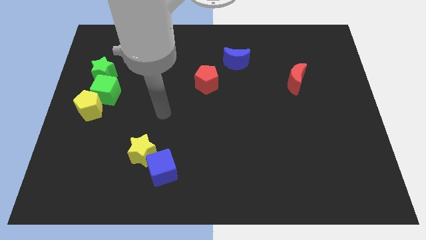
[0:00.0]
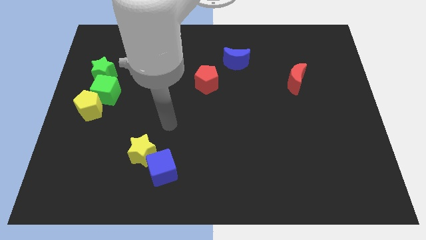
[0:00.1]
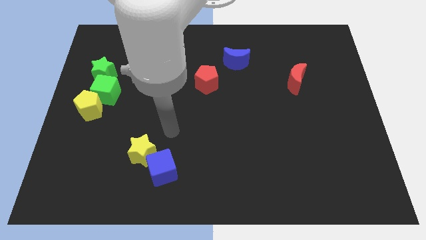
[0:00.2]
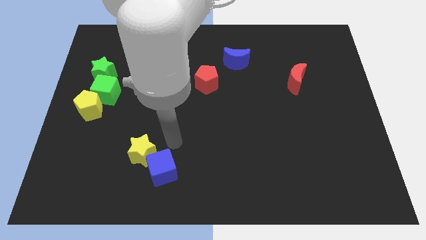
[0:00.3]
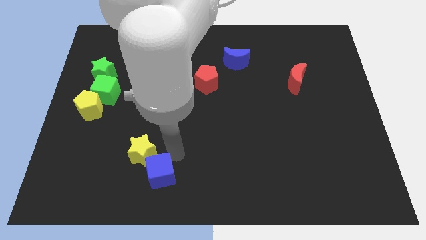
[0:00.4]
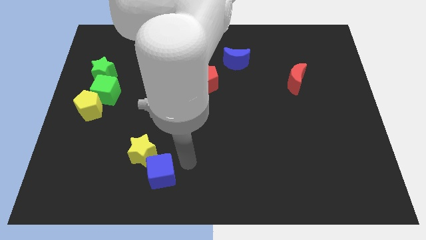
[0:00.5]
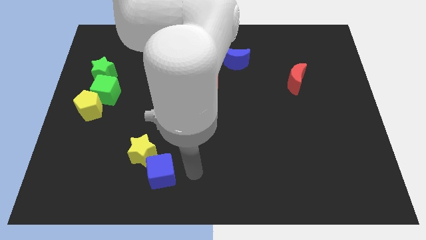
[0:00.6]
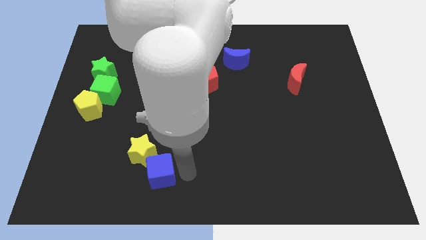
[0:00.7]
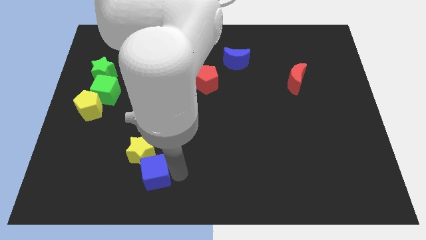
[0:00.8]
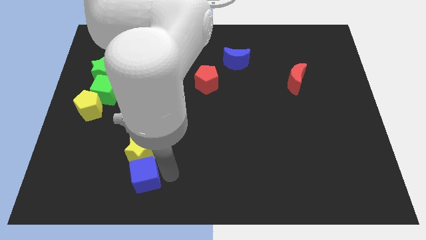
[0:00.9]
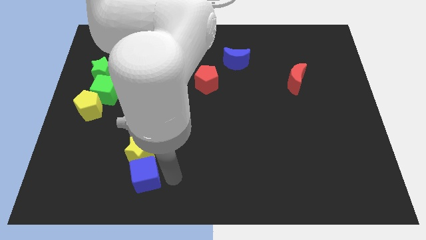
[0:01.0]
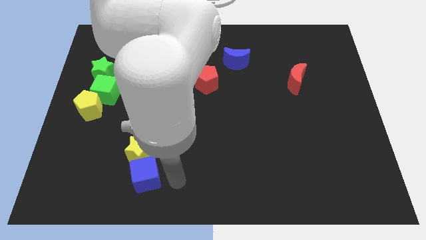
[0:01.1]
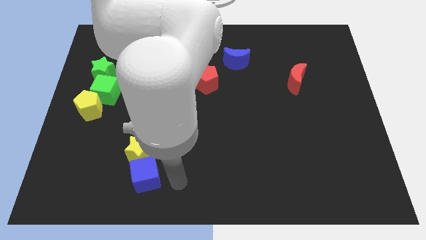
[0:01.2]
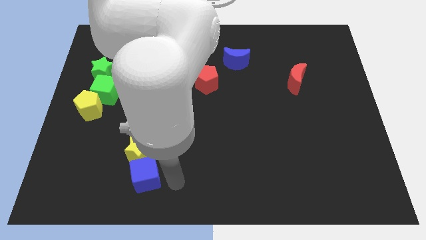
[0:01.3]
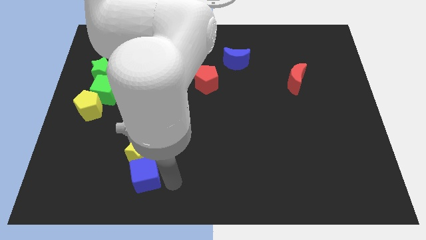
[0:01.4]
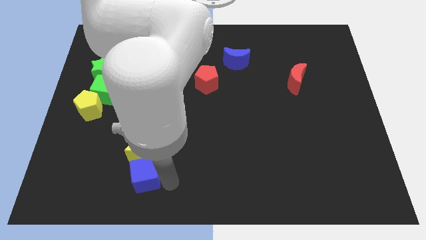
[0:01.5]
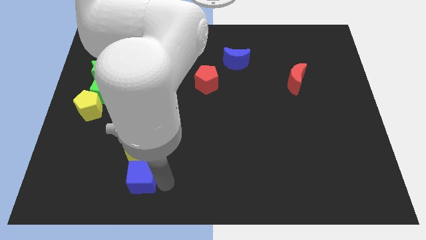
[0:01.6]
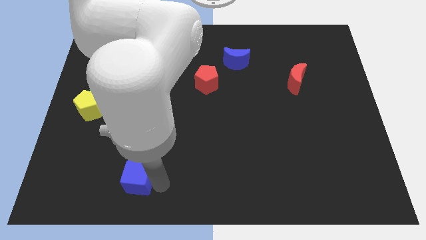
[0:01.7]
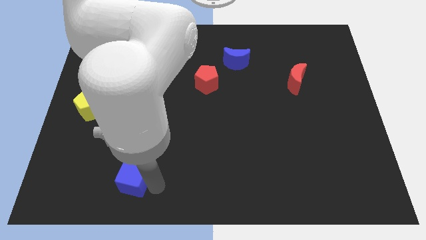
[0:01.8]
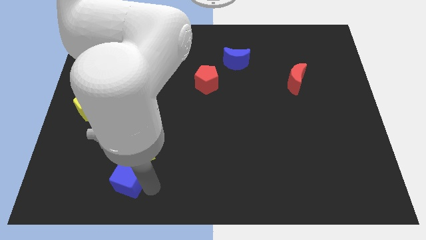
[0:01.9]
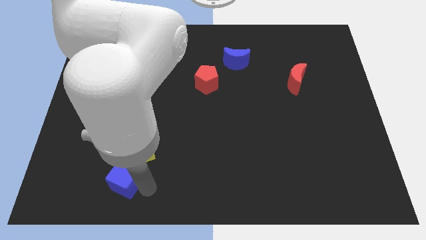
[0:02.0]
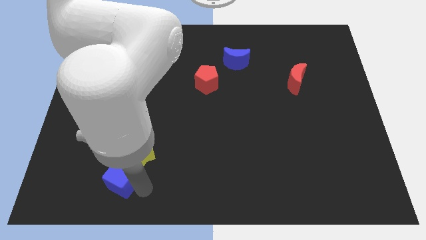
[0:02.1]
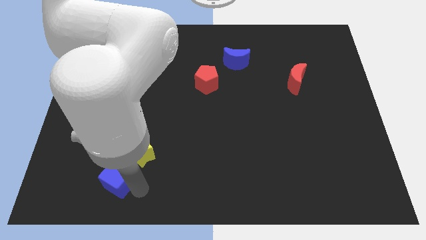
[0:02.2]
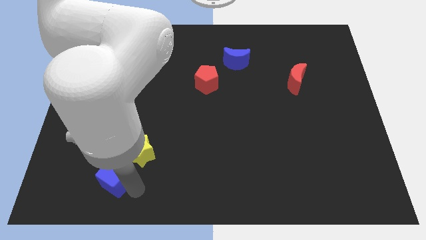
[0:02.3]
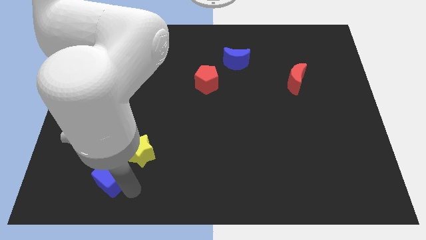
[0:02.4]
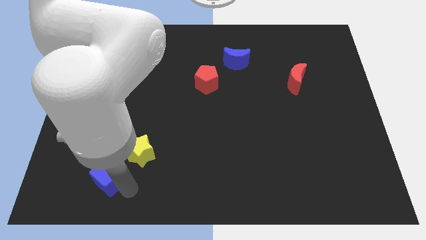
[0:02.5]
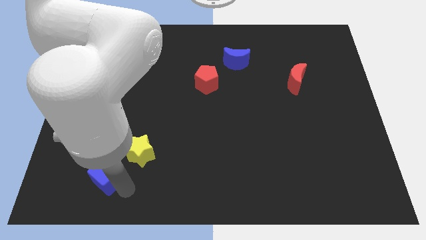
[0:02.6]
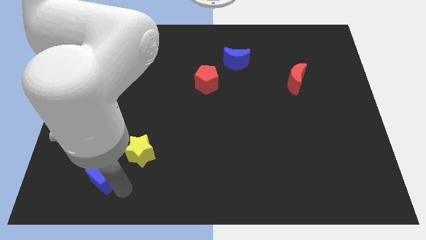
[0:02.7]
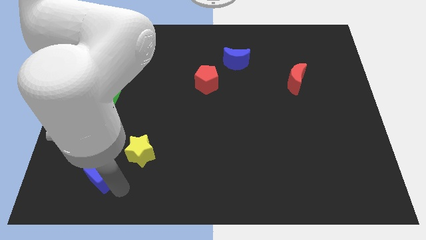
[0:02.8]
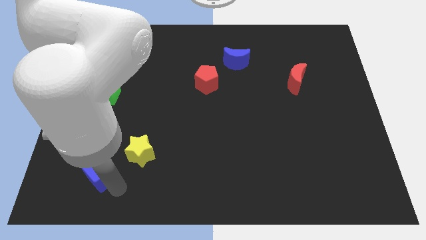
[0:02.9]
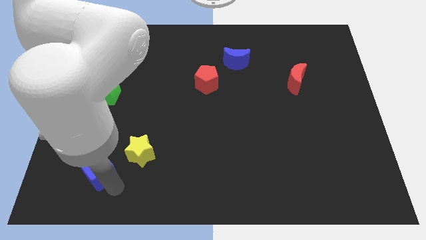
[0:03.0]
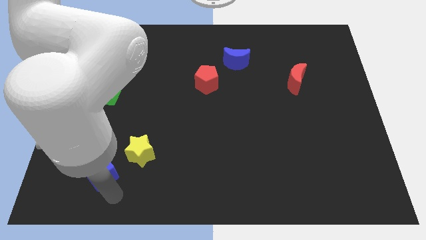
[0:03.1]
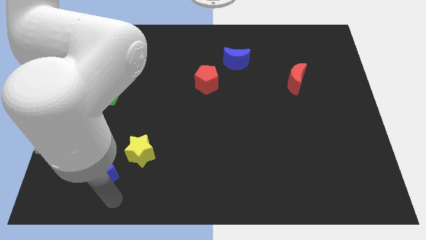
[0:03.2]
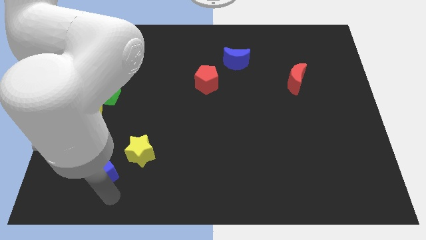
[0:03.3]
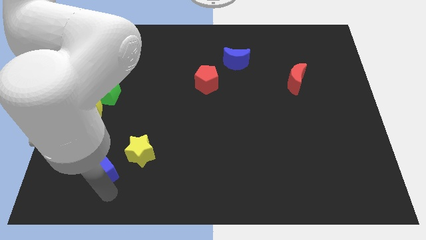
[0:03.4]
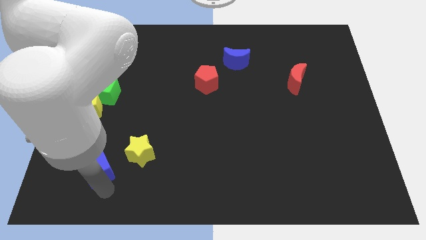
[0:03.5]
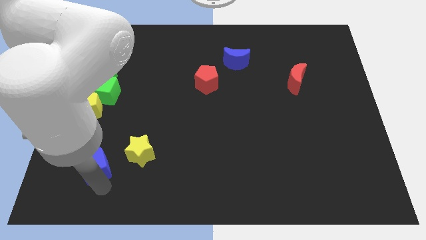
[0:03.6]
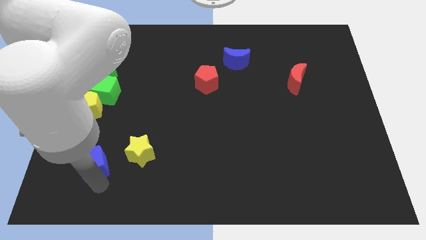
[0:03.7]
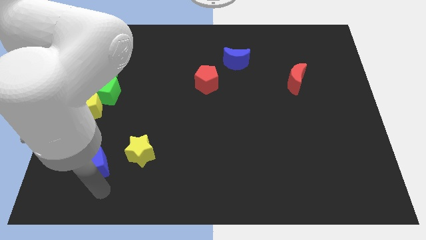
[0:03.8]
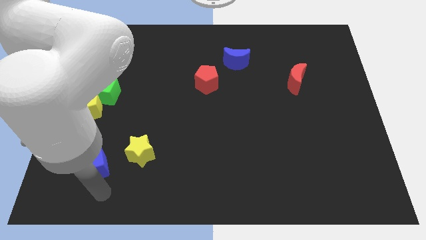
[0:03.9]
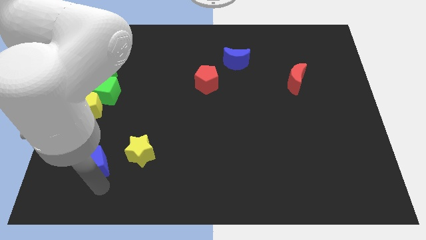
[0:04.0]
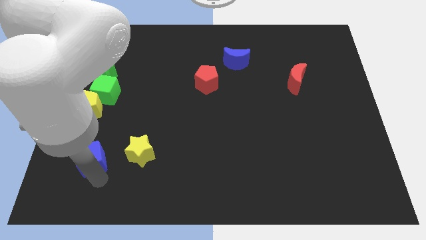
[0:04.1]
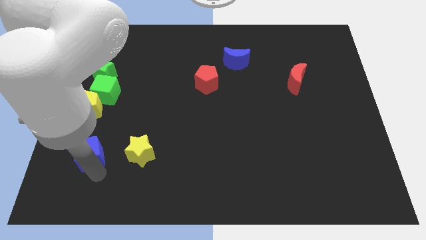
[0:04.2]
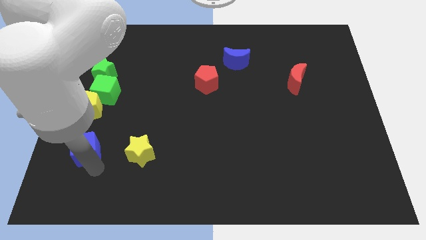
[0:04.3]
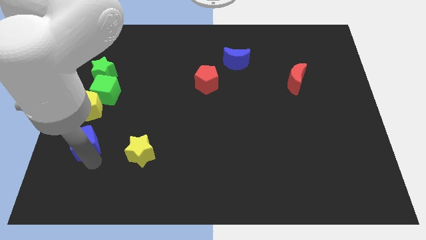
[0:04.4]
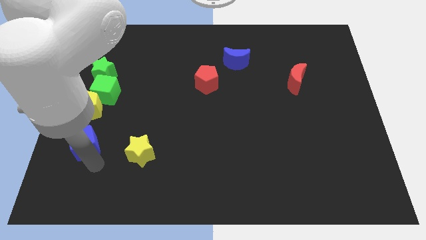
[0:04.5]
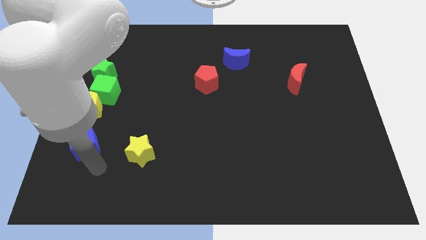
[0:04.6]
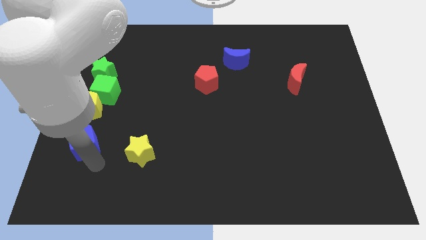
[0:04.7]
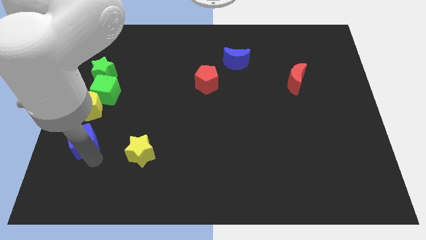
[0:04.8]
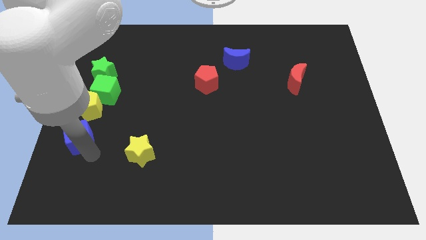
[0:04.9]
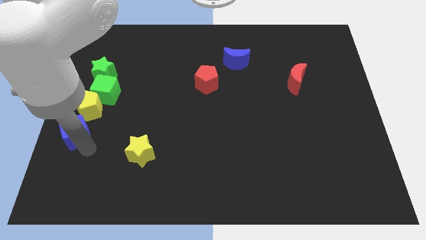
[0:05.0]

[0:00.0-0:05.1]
put the blue cube to the center left

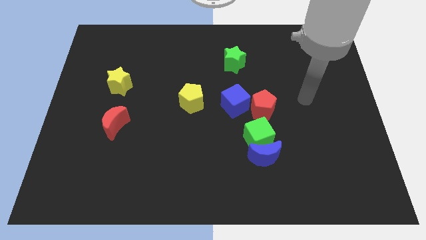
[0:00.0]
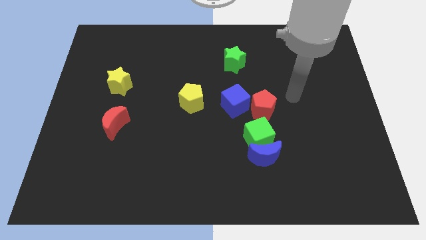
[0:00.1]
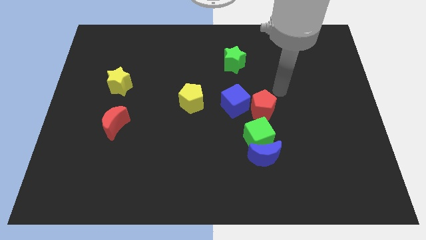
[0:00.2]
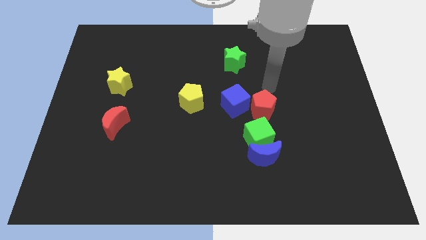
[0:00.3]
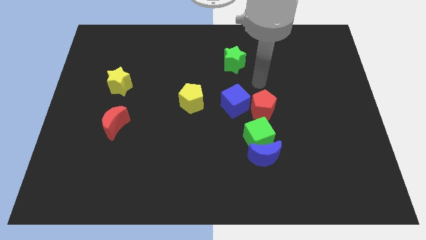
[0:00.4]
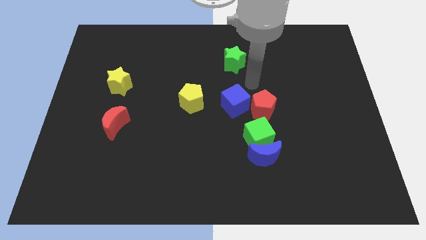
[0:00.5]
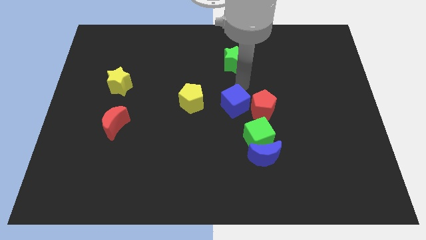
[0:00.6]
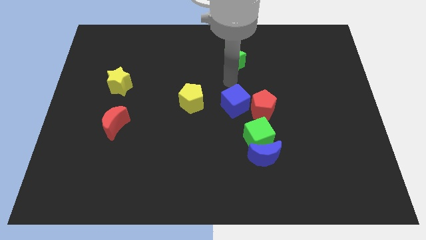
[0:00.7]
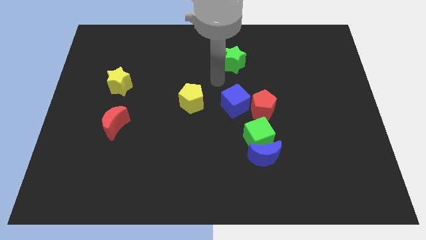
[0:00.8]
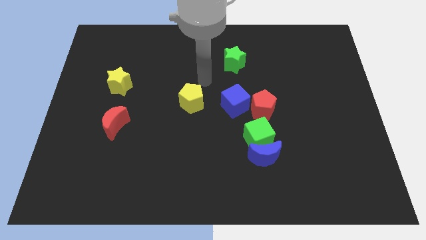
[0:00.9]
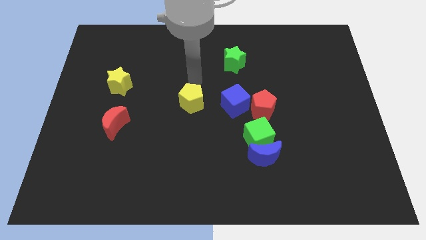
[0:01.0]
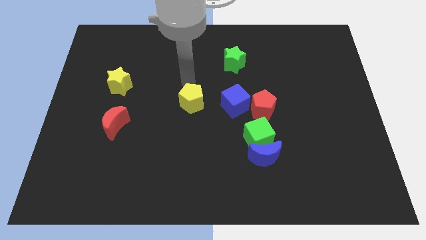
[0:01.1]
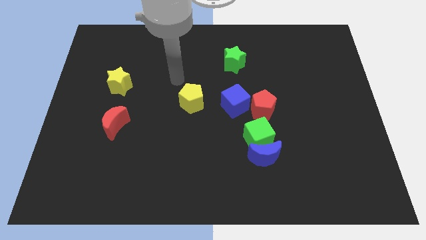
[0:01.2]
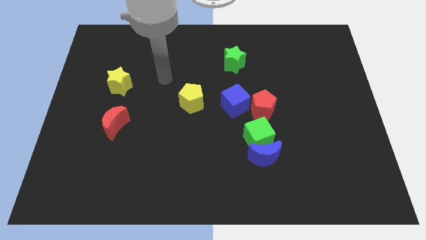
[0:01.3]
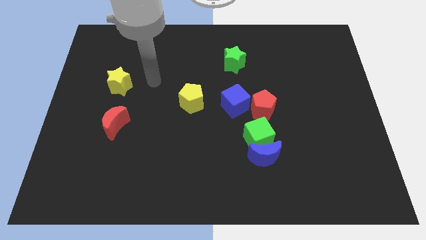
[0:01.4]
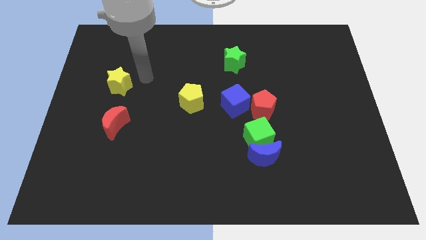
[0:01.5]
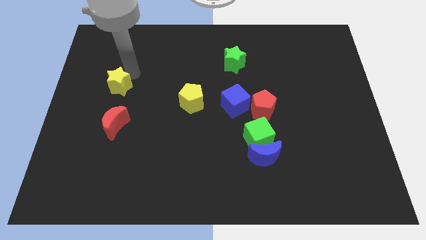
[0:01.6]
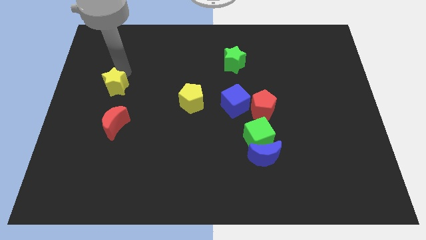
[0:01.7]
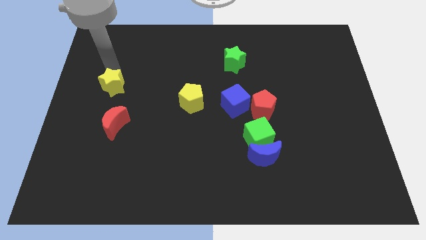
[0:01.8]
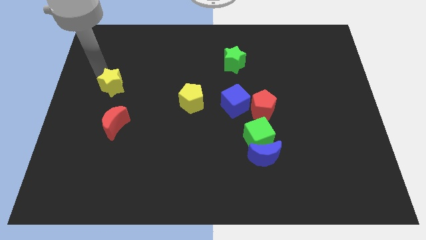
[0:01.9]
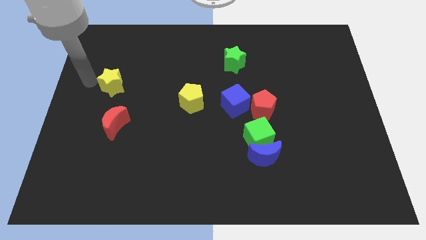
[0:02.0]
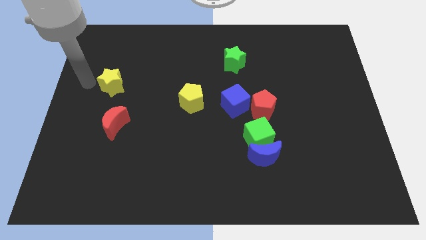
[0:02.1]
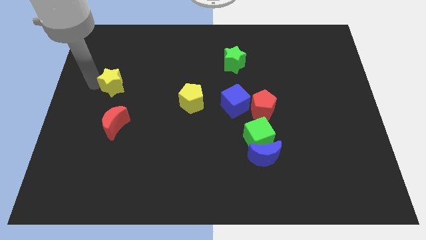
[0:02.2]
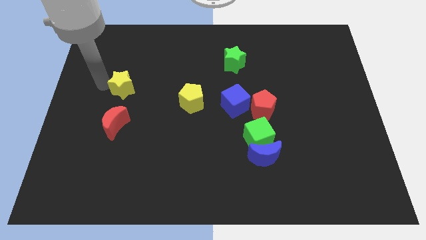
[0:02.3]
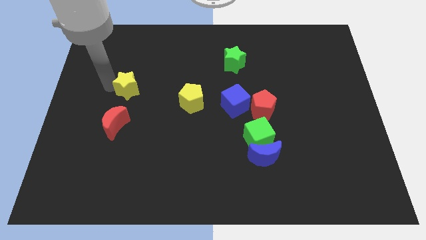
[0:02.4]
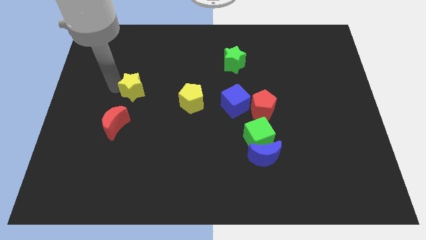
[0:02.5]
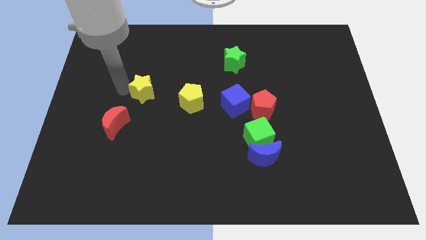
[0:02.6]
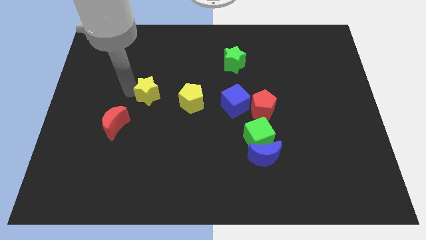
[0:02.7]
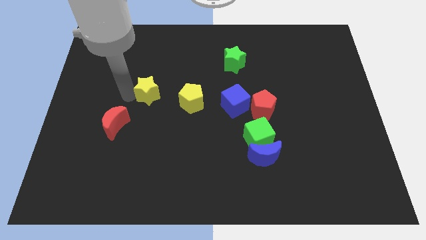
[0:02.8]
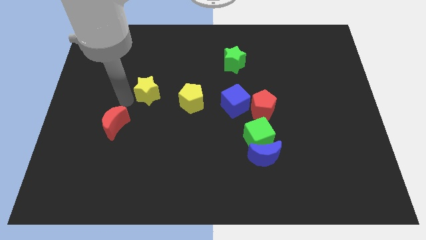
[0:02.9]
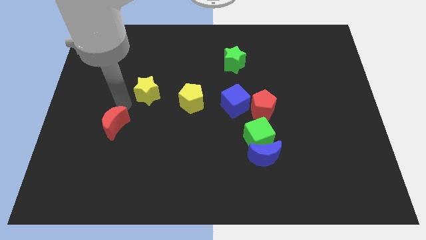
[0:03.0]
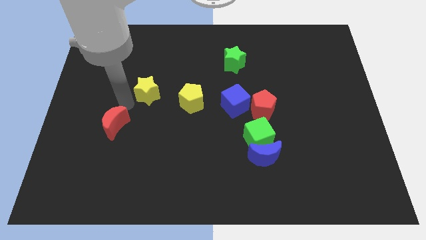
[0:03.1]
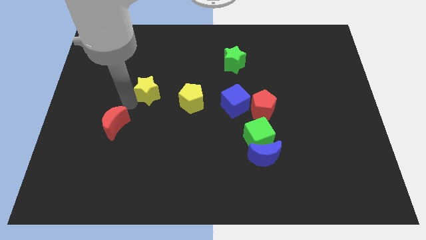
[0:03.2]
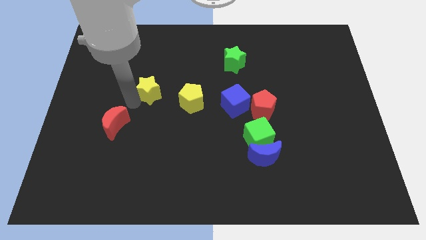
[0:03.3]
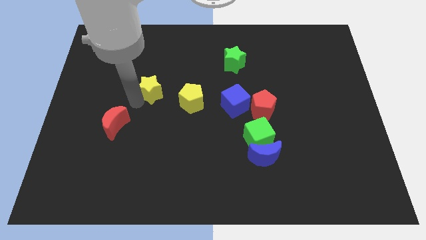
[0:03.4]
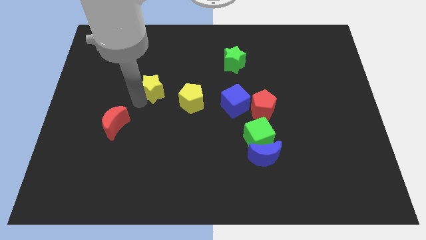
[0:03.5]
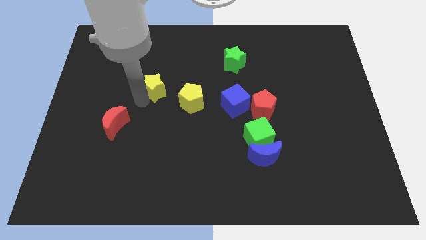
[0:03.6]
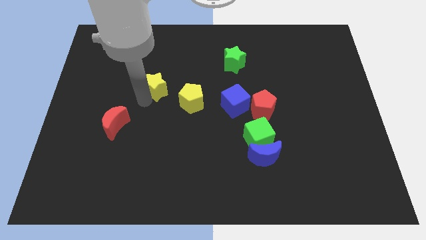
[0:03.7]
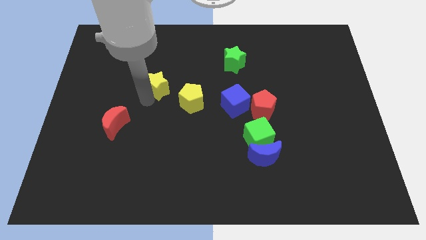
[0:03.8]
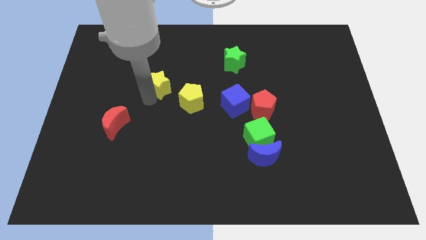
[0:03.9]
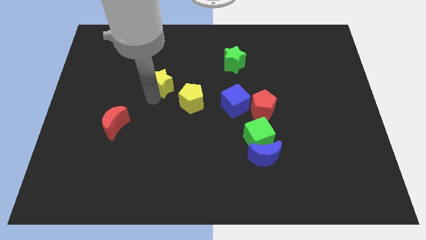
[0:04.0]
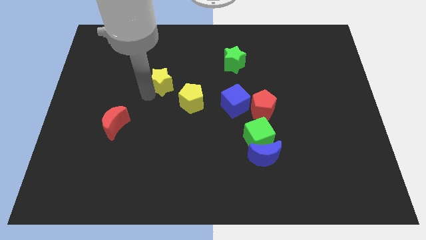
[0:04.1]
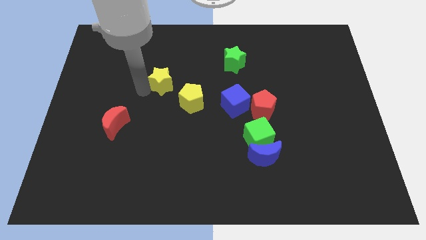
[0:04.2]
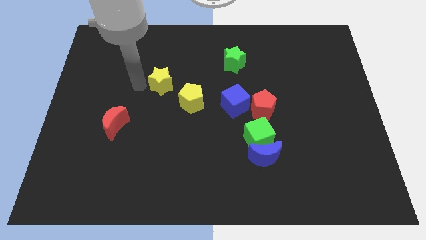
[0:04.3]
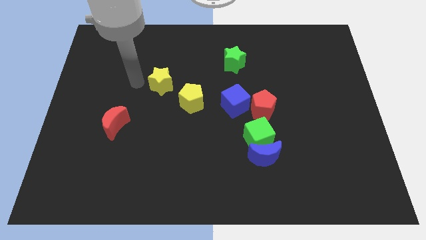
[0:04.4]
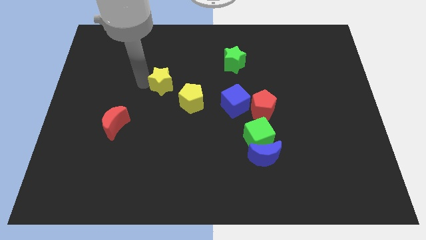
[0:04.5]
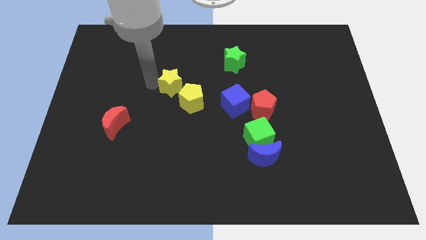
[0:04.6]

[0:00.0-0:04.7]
put the yellow star to the middle
